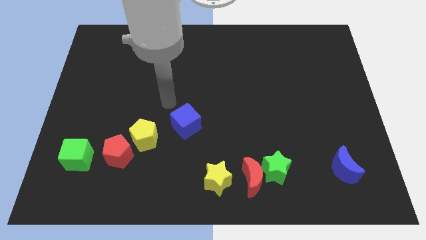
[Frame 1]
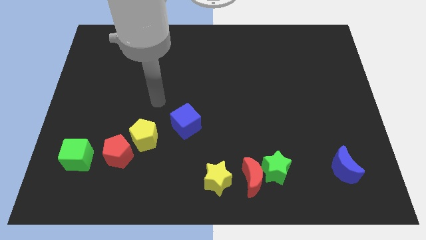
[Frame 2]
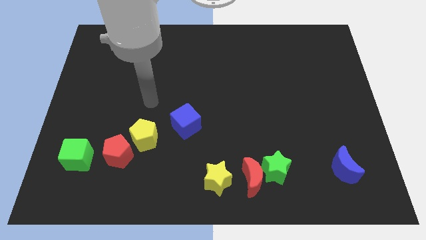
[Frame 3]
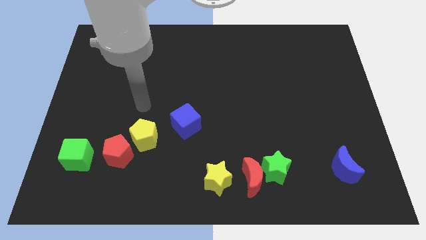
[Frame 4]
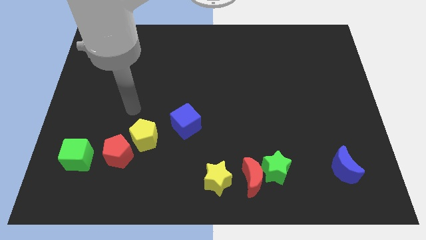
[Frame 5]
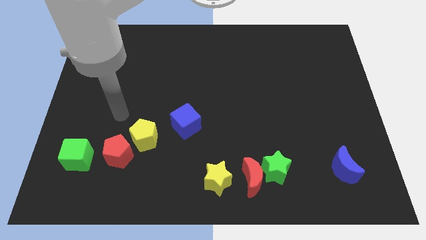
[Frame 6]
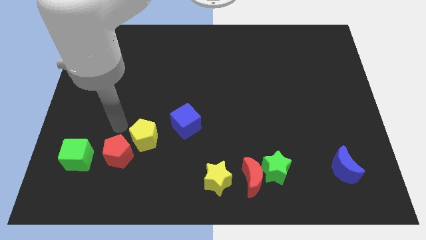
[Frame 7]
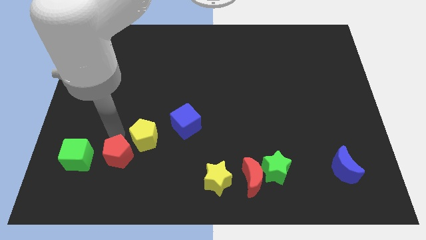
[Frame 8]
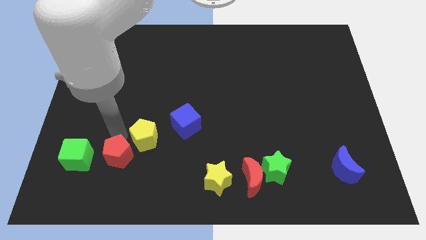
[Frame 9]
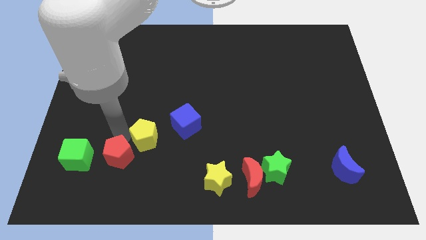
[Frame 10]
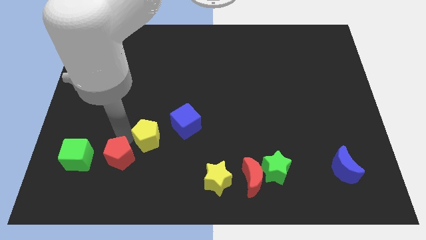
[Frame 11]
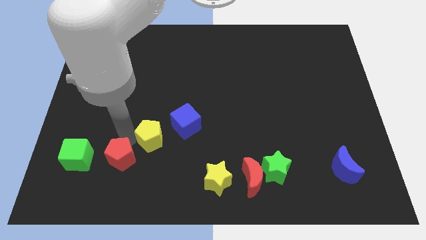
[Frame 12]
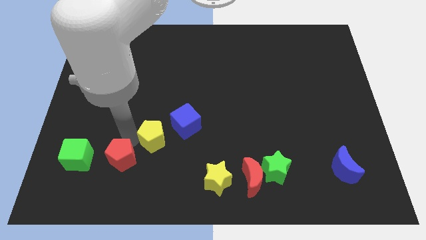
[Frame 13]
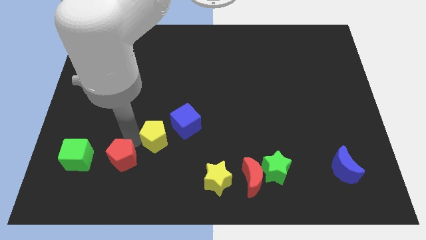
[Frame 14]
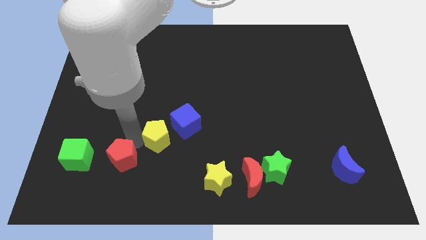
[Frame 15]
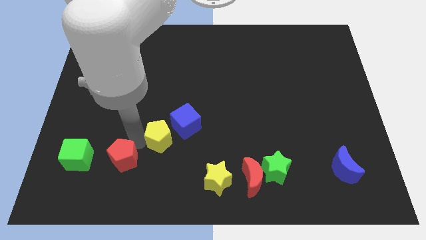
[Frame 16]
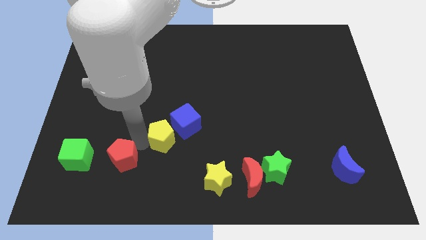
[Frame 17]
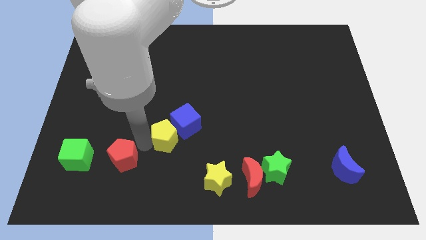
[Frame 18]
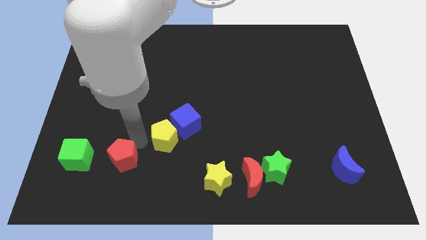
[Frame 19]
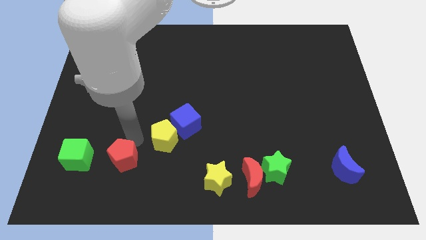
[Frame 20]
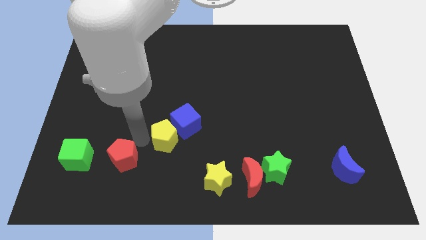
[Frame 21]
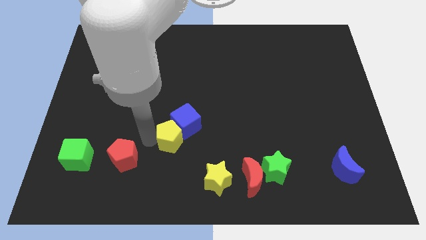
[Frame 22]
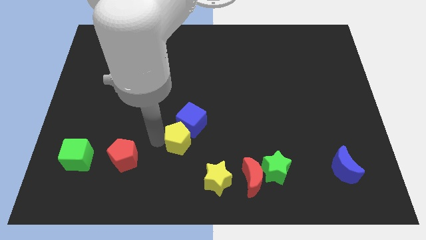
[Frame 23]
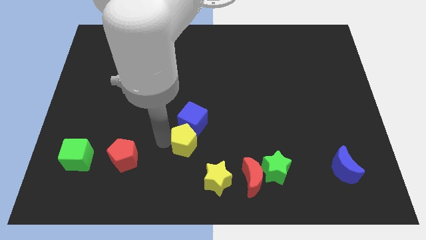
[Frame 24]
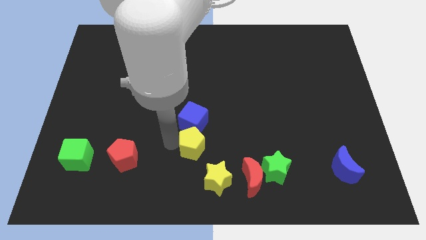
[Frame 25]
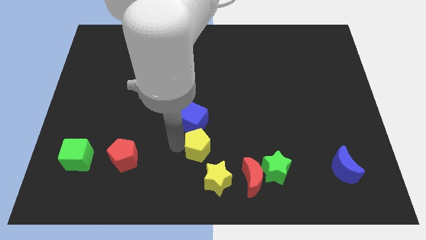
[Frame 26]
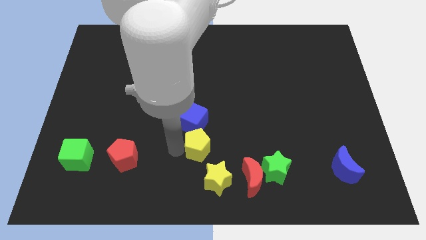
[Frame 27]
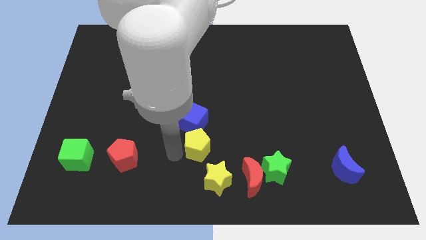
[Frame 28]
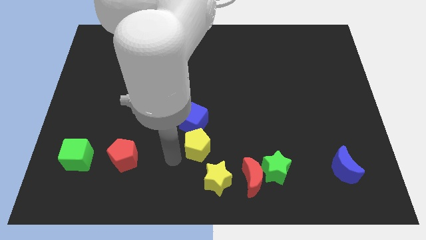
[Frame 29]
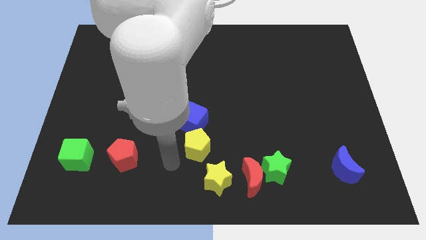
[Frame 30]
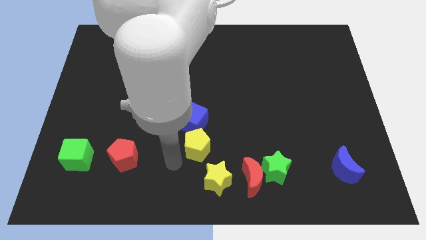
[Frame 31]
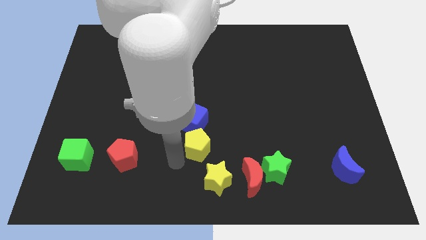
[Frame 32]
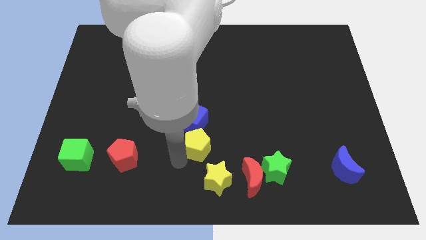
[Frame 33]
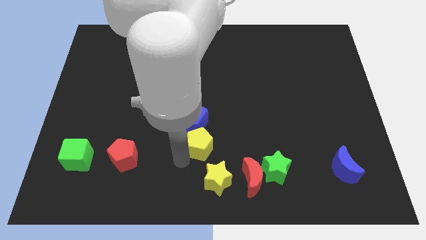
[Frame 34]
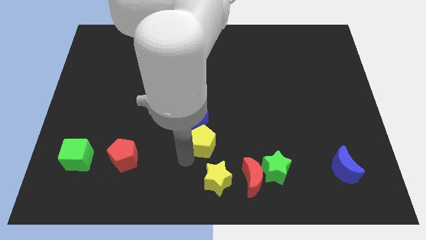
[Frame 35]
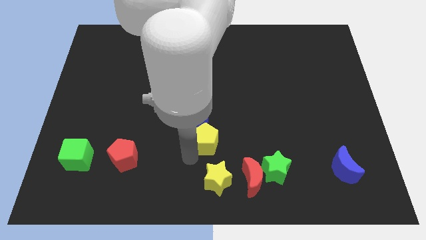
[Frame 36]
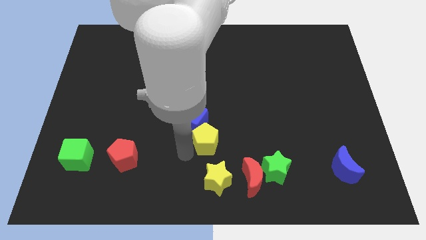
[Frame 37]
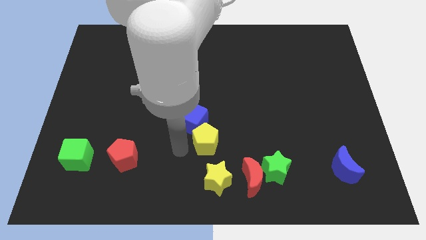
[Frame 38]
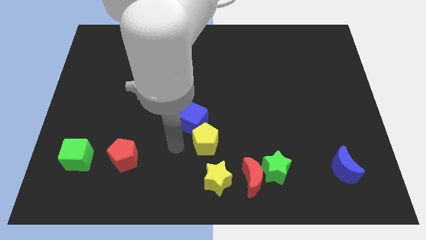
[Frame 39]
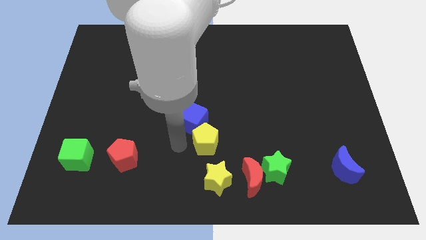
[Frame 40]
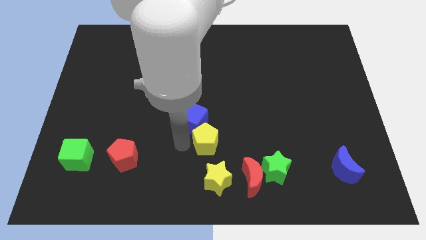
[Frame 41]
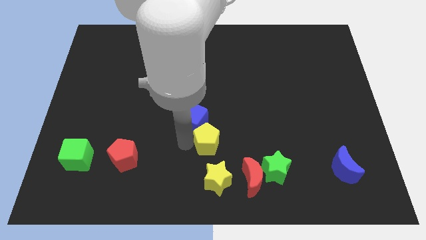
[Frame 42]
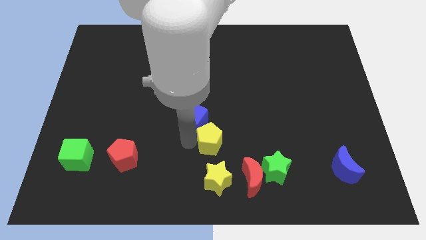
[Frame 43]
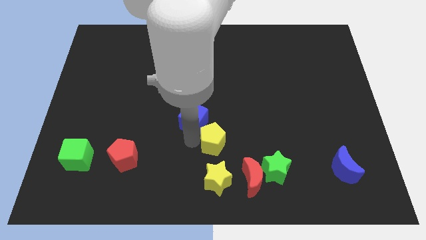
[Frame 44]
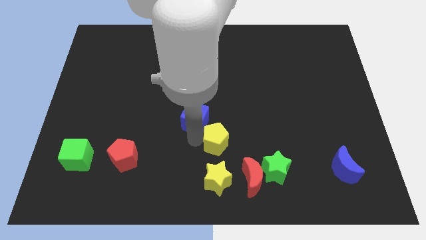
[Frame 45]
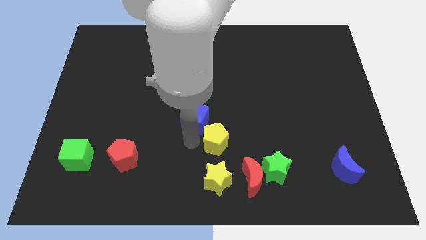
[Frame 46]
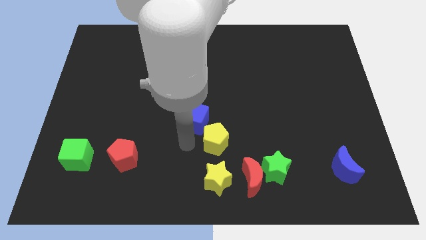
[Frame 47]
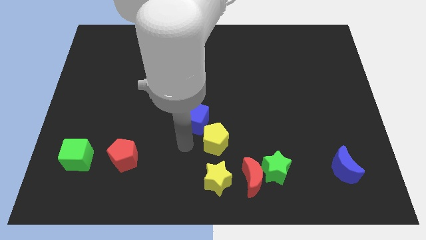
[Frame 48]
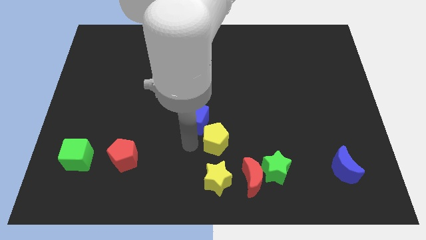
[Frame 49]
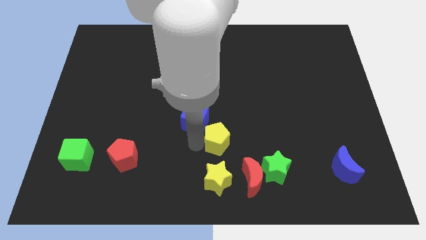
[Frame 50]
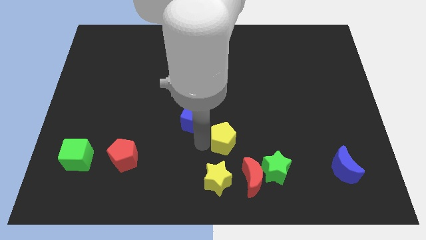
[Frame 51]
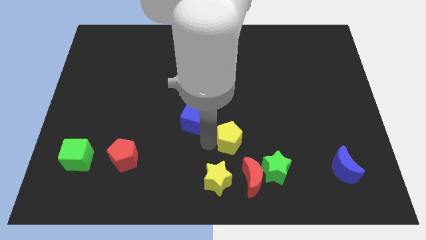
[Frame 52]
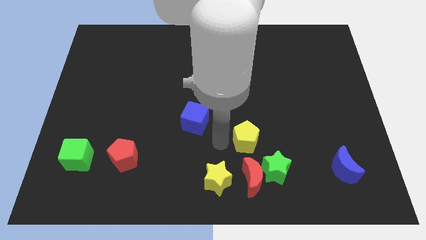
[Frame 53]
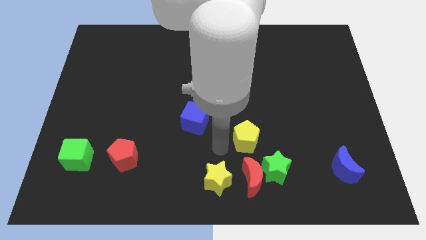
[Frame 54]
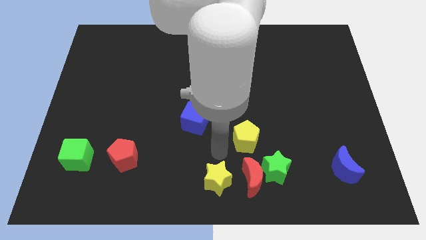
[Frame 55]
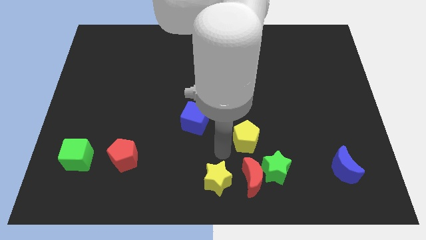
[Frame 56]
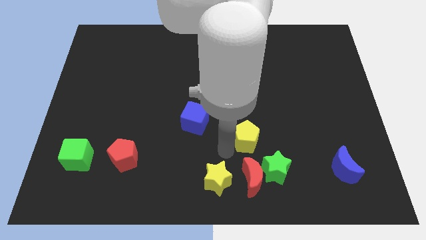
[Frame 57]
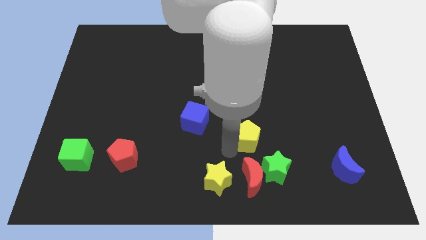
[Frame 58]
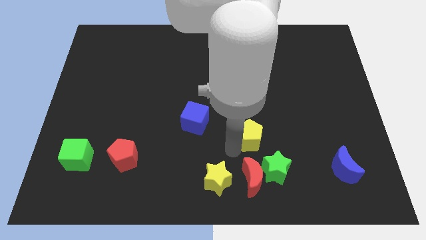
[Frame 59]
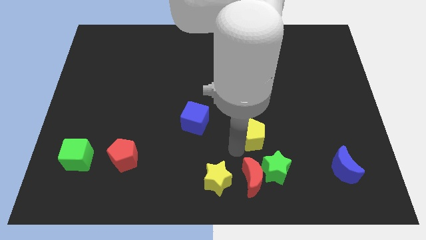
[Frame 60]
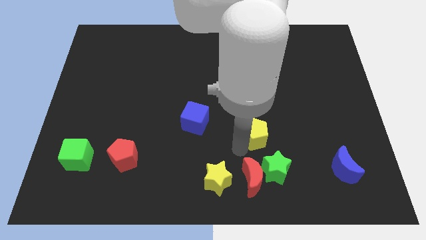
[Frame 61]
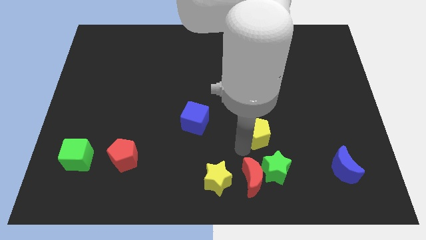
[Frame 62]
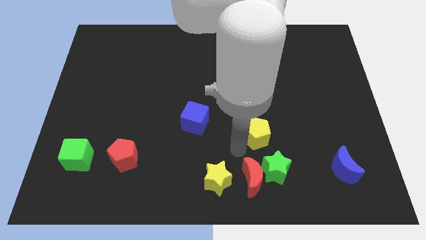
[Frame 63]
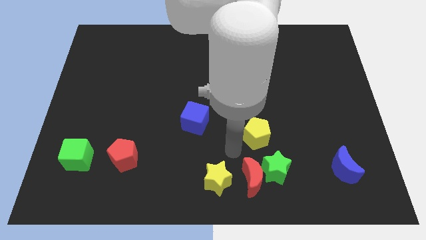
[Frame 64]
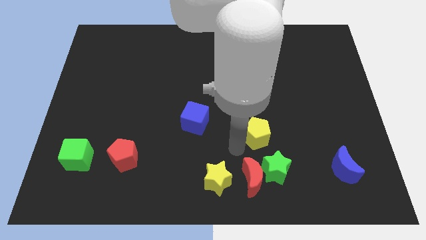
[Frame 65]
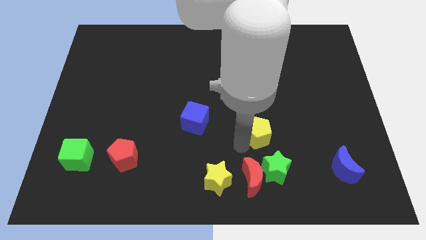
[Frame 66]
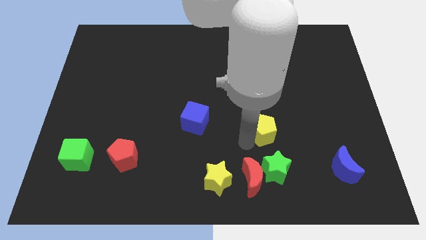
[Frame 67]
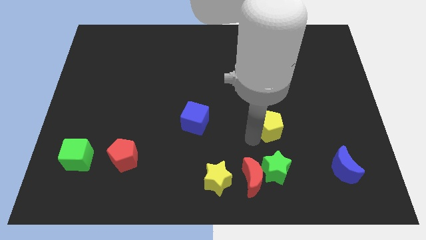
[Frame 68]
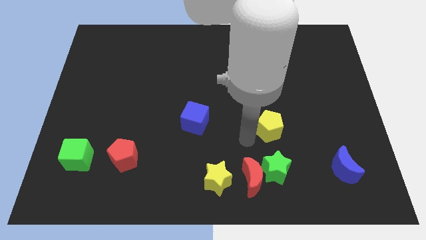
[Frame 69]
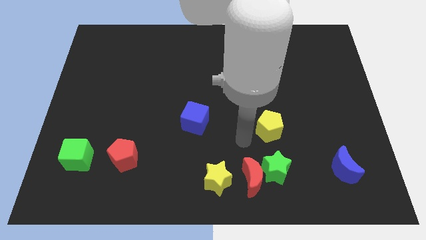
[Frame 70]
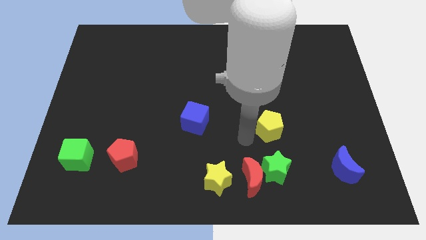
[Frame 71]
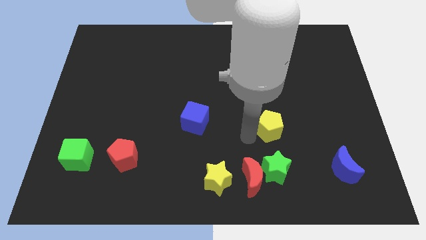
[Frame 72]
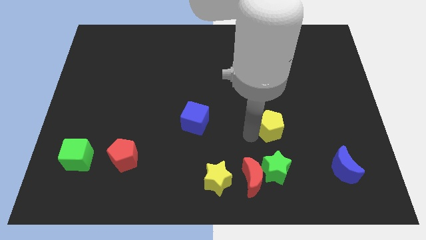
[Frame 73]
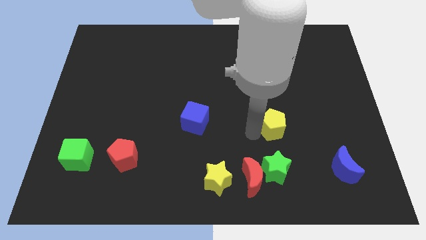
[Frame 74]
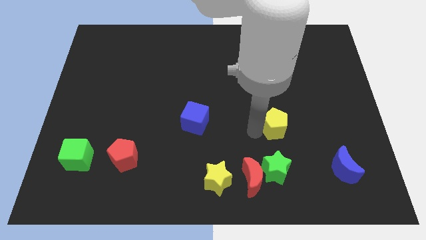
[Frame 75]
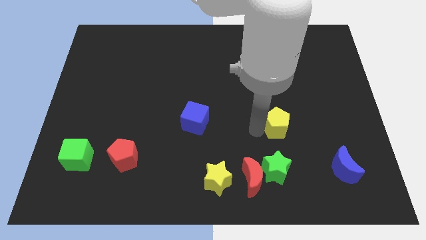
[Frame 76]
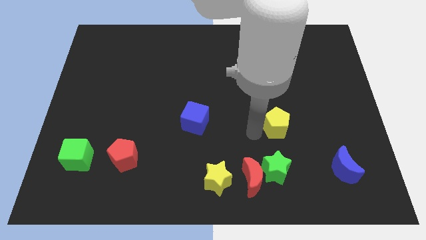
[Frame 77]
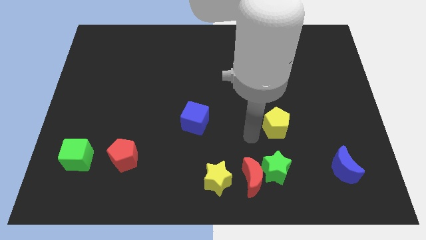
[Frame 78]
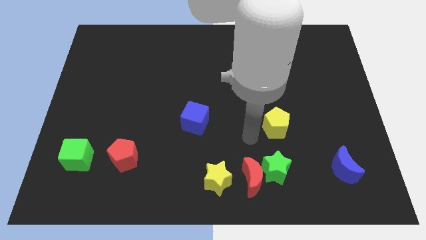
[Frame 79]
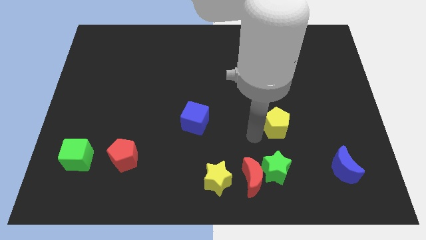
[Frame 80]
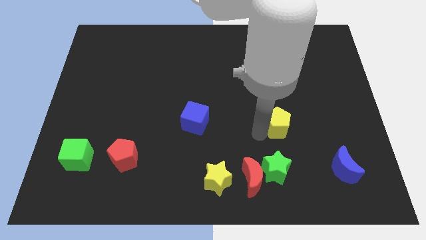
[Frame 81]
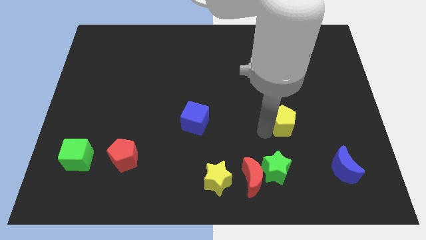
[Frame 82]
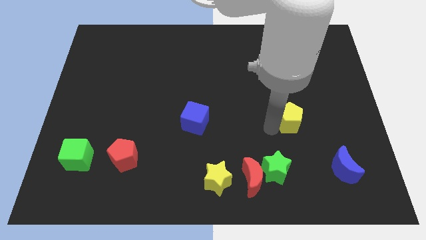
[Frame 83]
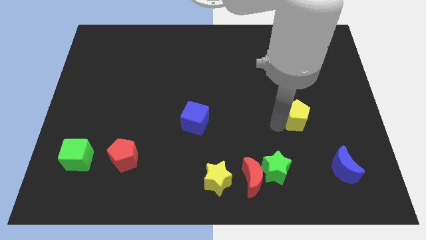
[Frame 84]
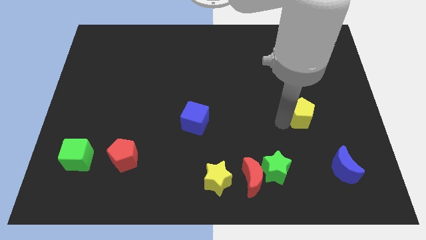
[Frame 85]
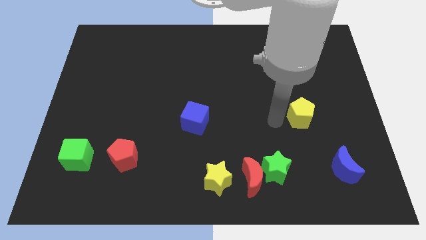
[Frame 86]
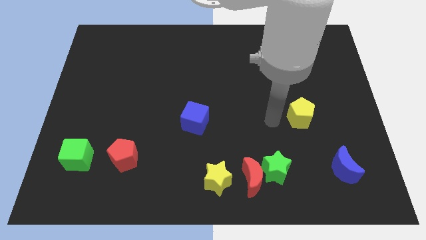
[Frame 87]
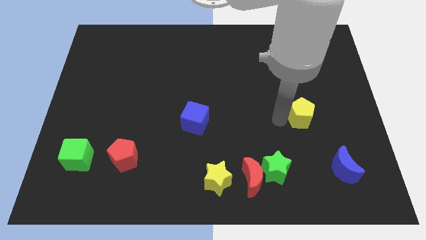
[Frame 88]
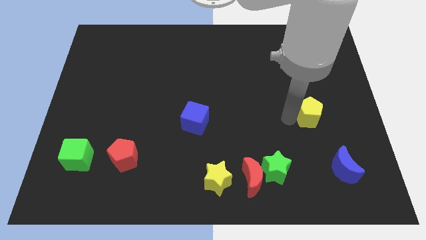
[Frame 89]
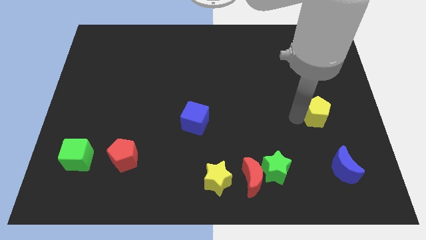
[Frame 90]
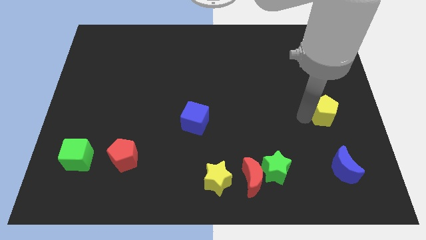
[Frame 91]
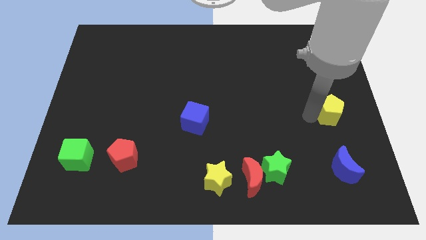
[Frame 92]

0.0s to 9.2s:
move the yellow pentagon to the center right
